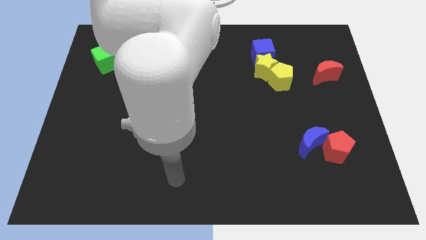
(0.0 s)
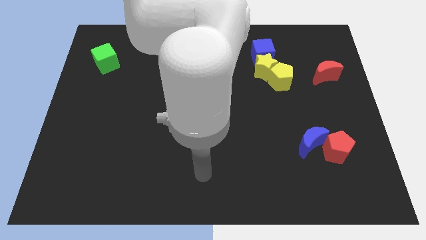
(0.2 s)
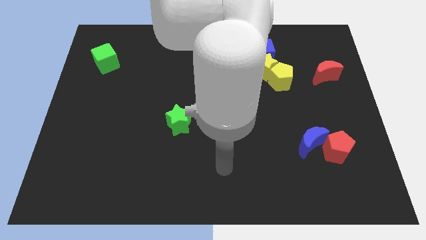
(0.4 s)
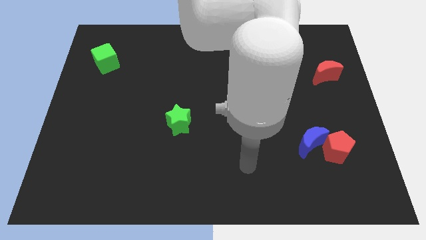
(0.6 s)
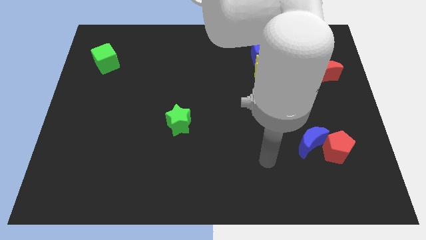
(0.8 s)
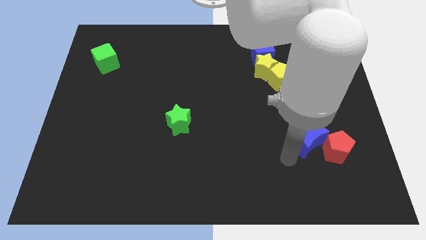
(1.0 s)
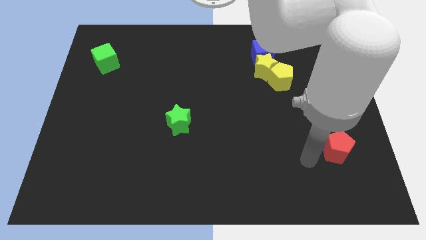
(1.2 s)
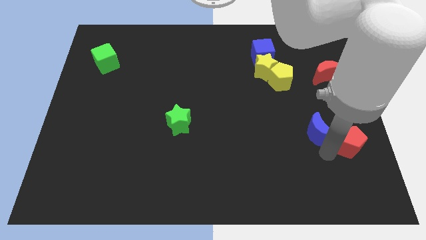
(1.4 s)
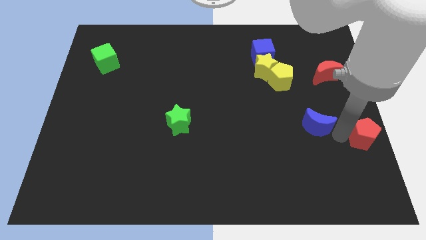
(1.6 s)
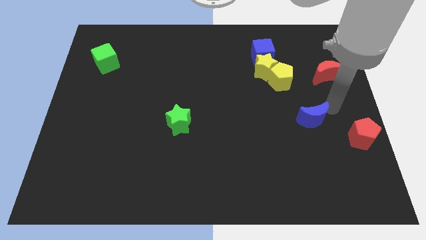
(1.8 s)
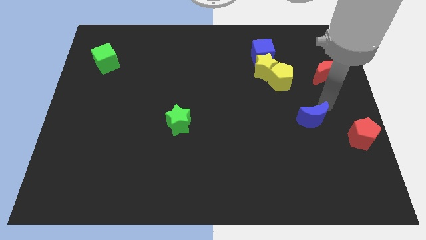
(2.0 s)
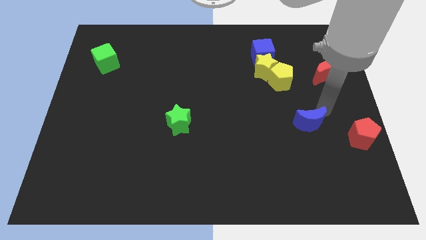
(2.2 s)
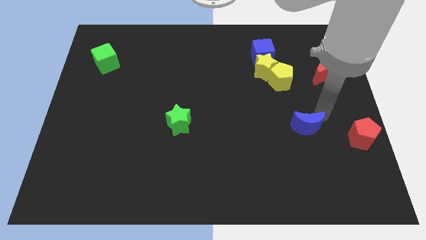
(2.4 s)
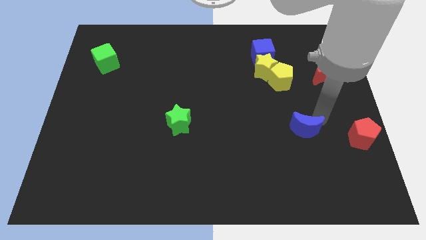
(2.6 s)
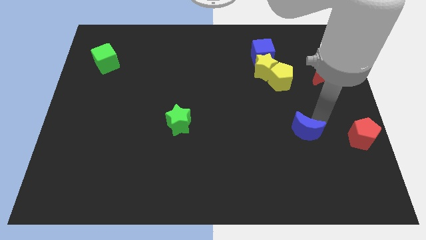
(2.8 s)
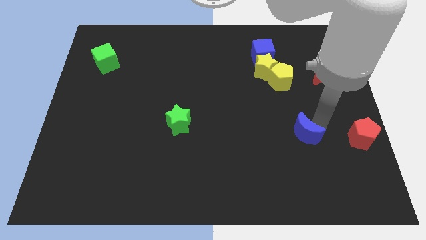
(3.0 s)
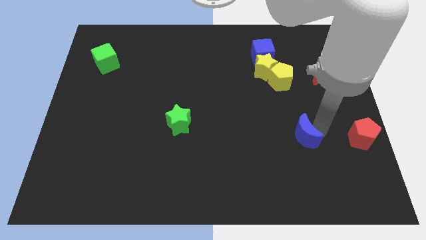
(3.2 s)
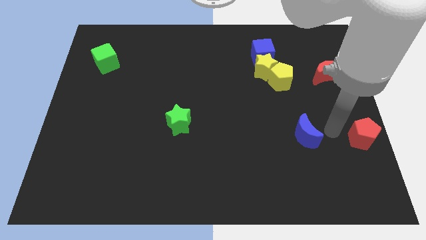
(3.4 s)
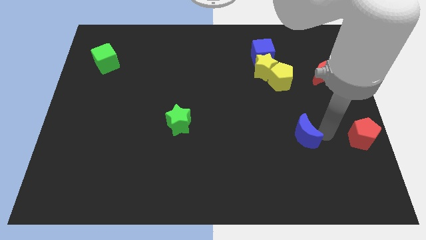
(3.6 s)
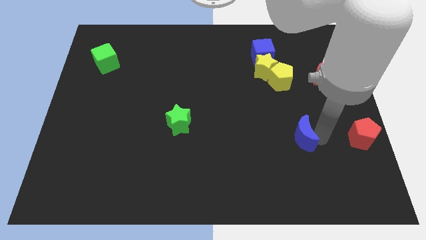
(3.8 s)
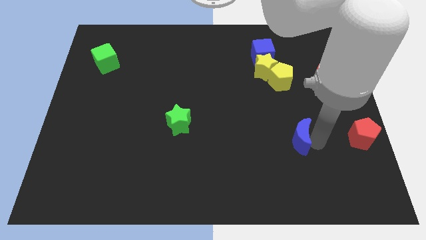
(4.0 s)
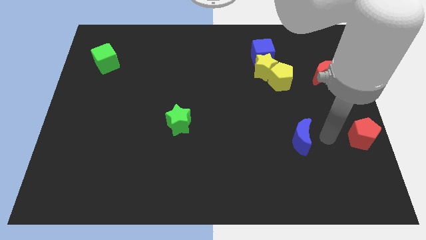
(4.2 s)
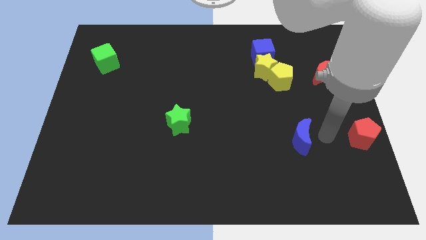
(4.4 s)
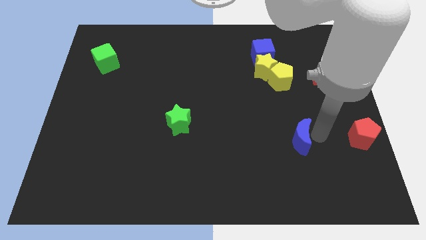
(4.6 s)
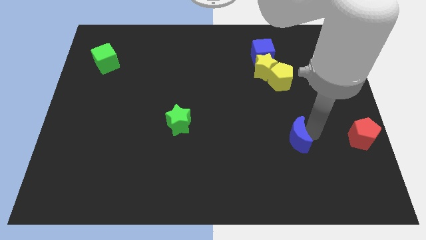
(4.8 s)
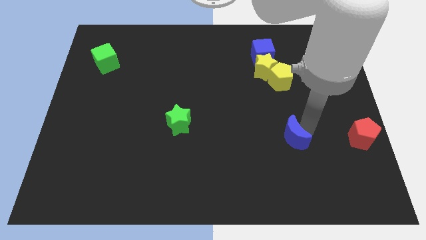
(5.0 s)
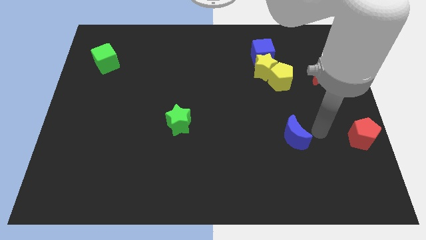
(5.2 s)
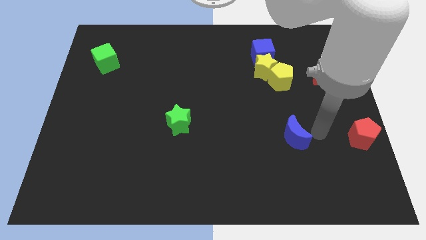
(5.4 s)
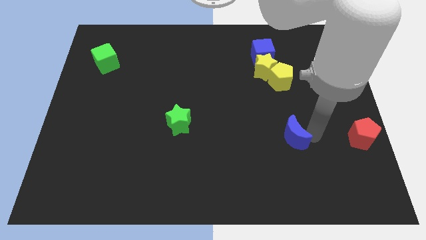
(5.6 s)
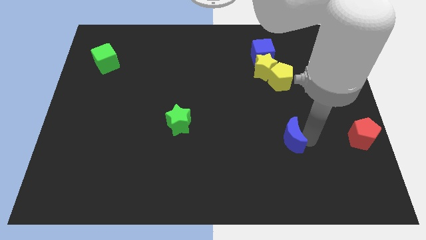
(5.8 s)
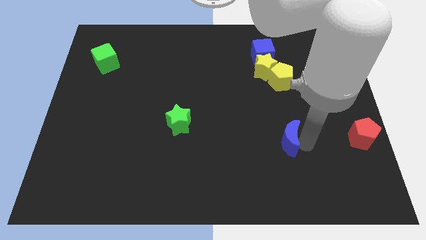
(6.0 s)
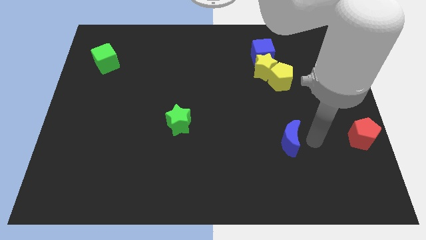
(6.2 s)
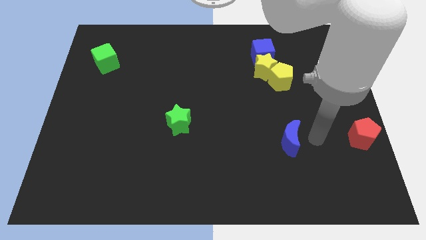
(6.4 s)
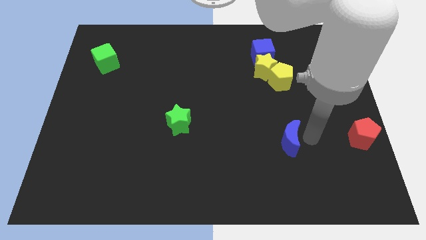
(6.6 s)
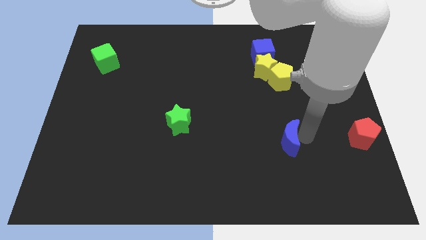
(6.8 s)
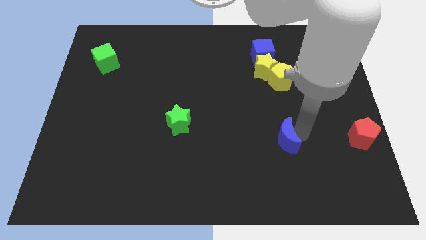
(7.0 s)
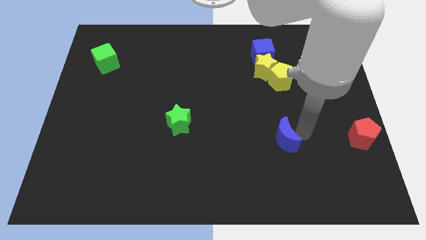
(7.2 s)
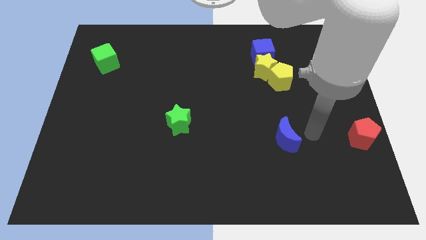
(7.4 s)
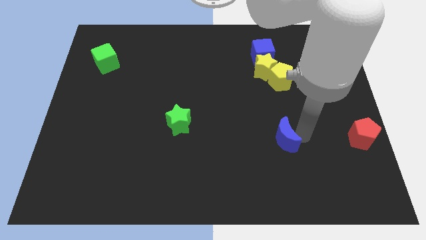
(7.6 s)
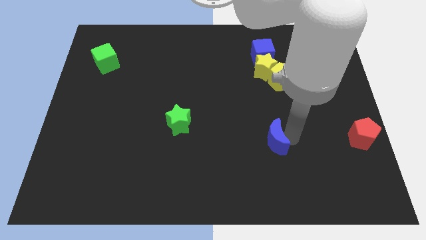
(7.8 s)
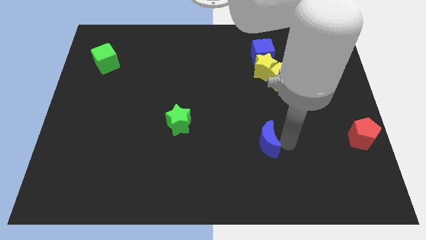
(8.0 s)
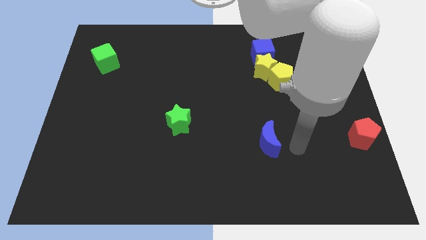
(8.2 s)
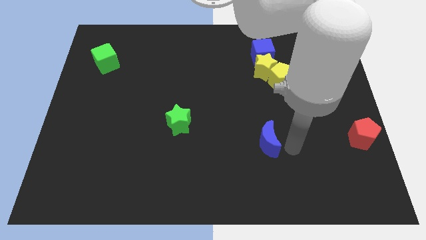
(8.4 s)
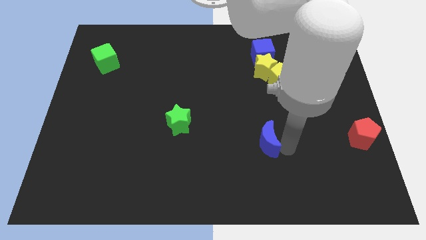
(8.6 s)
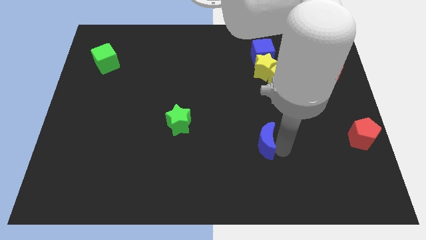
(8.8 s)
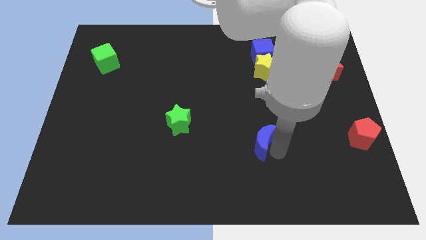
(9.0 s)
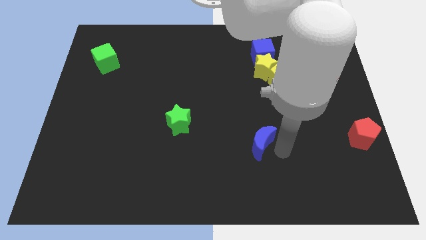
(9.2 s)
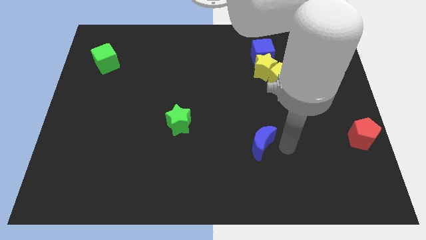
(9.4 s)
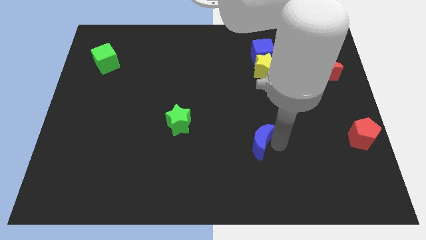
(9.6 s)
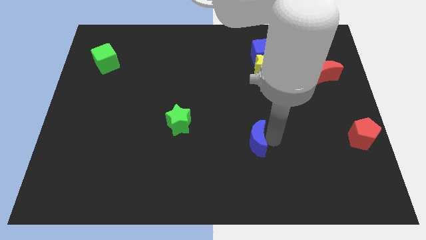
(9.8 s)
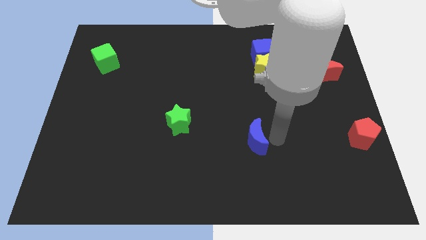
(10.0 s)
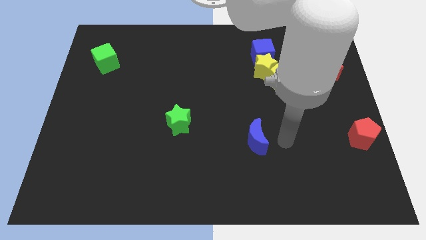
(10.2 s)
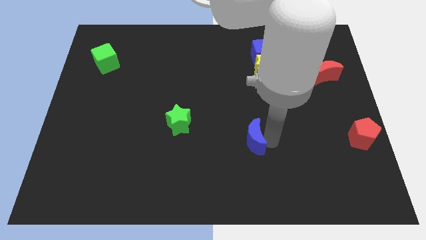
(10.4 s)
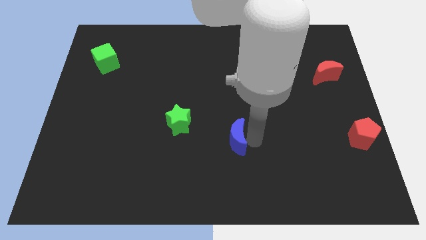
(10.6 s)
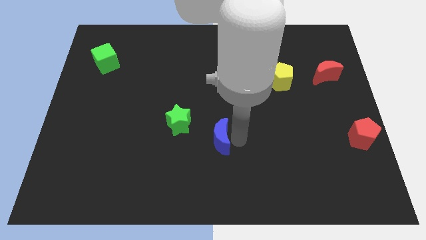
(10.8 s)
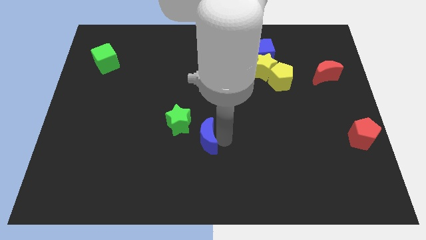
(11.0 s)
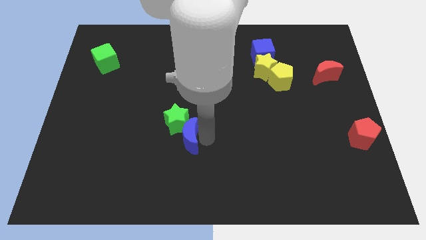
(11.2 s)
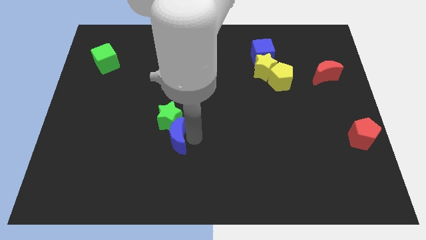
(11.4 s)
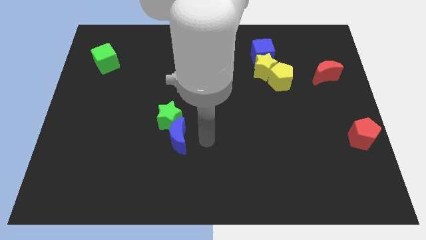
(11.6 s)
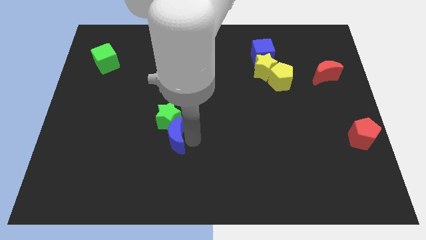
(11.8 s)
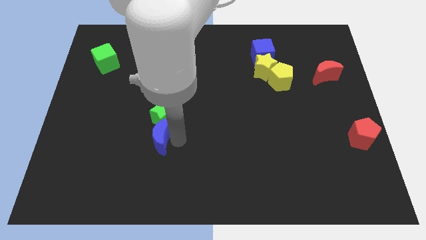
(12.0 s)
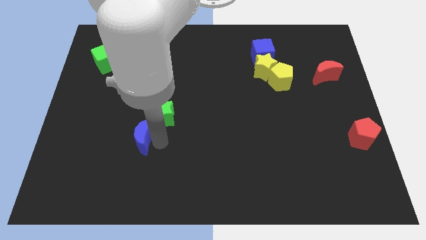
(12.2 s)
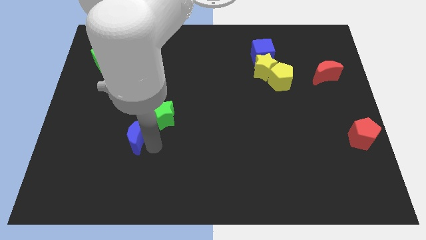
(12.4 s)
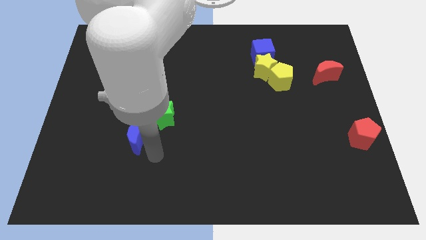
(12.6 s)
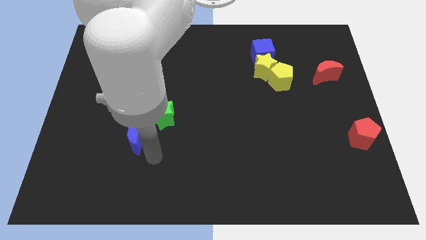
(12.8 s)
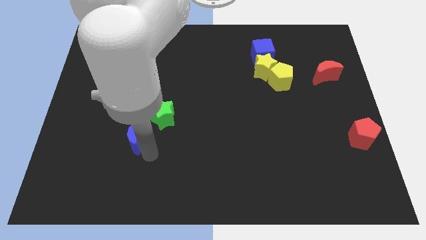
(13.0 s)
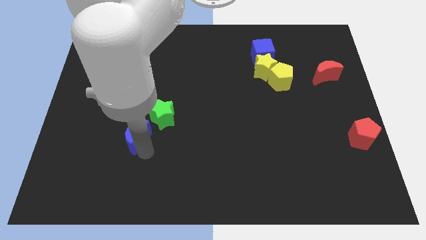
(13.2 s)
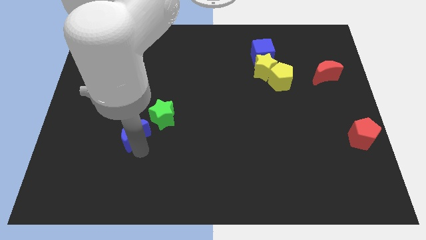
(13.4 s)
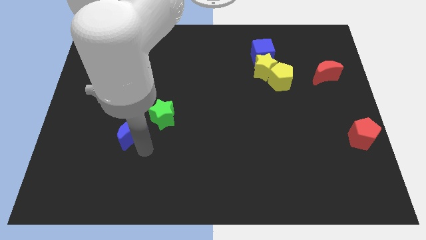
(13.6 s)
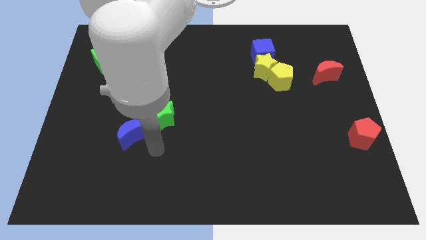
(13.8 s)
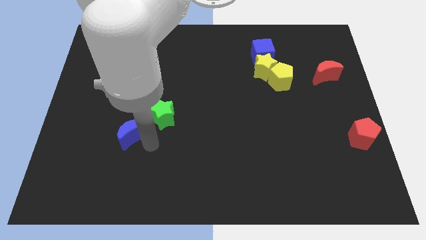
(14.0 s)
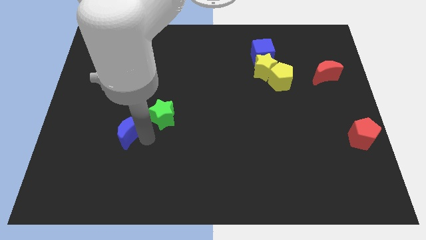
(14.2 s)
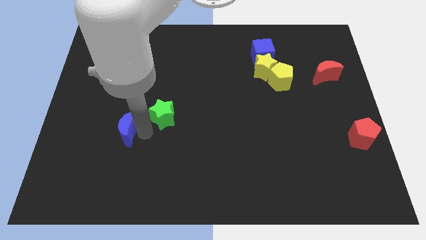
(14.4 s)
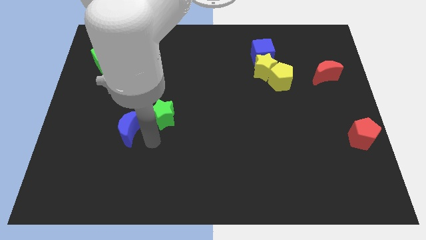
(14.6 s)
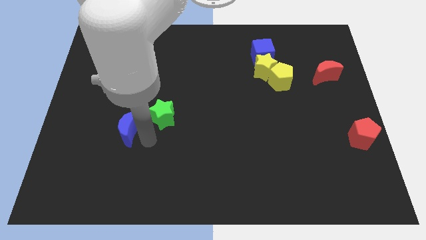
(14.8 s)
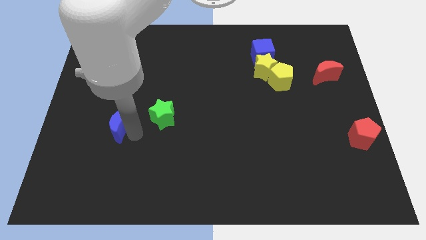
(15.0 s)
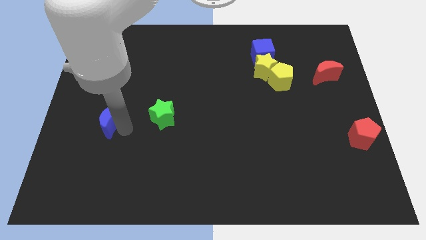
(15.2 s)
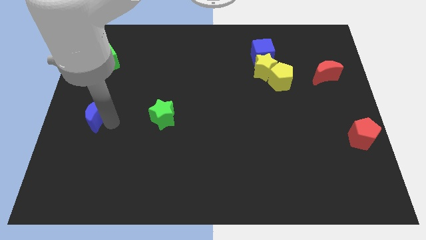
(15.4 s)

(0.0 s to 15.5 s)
put the blue moon to the left side
